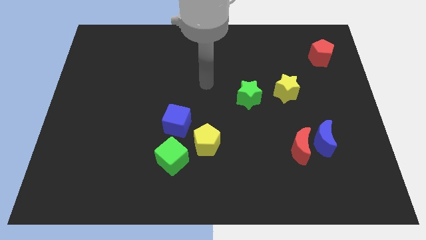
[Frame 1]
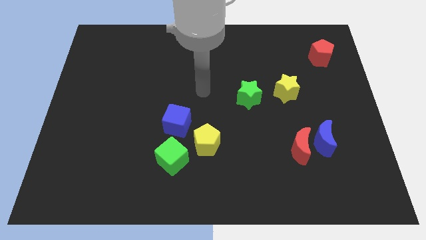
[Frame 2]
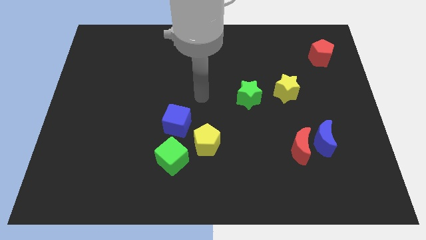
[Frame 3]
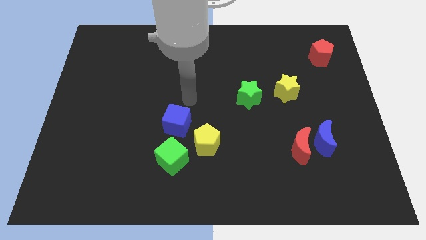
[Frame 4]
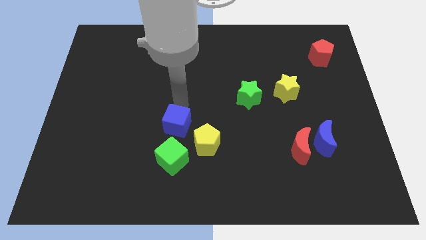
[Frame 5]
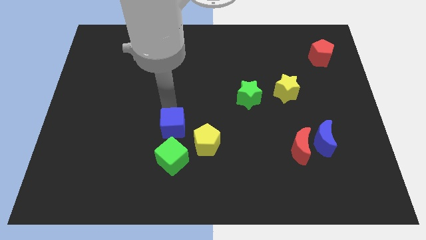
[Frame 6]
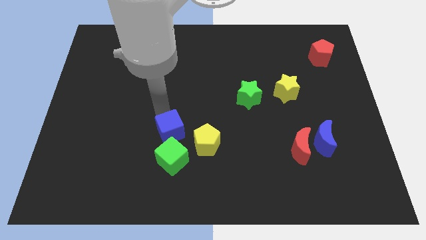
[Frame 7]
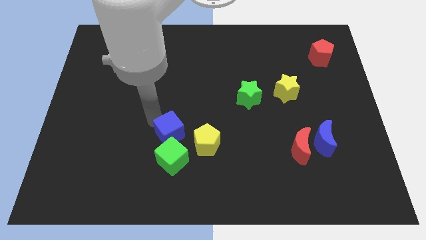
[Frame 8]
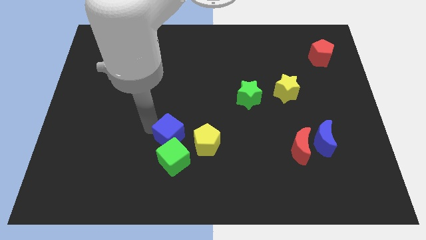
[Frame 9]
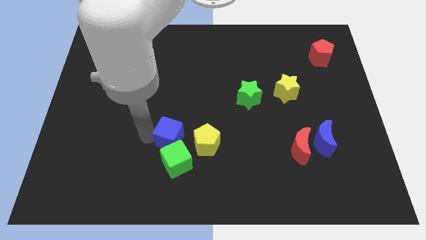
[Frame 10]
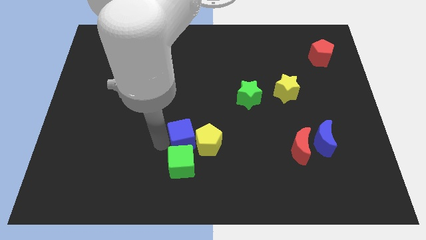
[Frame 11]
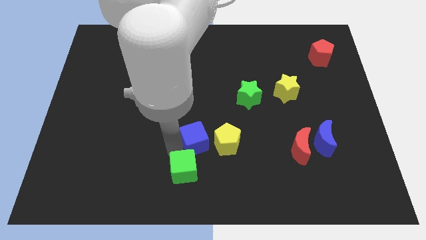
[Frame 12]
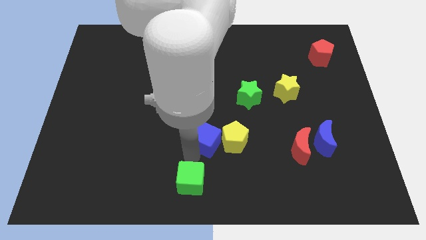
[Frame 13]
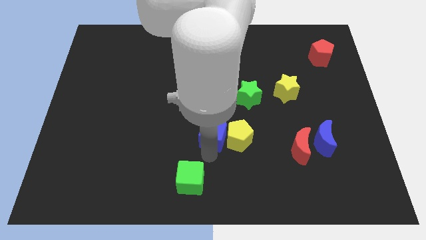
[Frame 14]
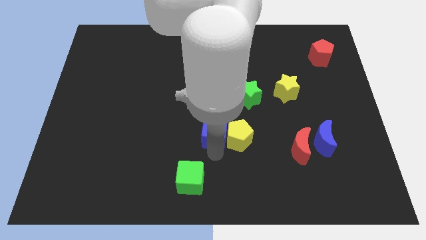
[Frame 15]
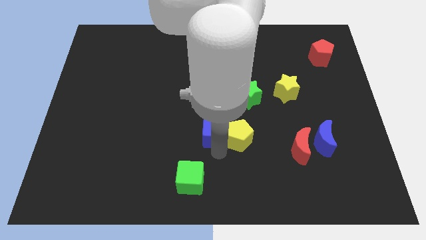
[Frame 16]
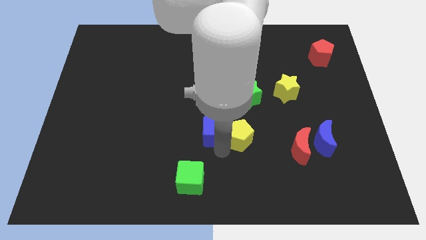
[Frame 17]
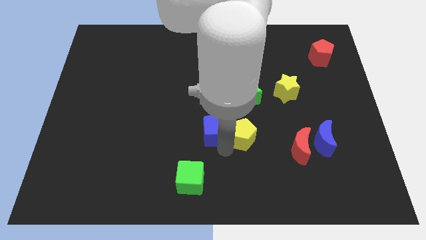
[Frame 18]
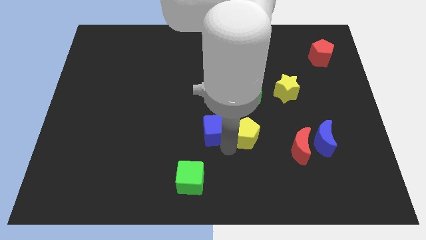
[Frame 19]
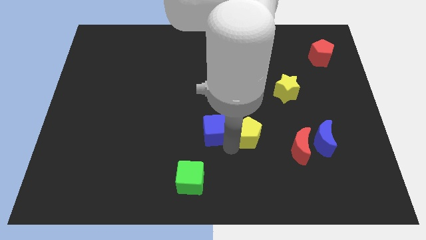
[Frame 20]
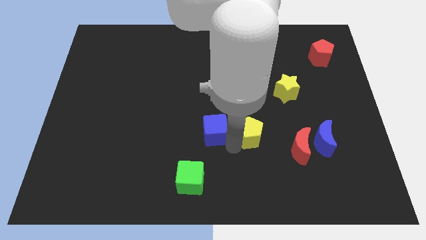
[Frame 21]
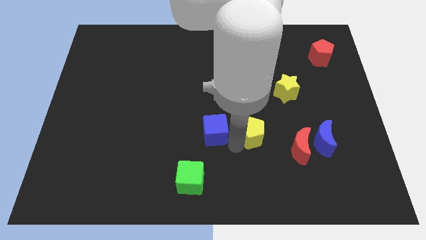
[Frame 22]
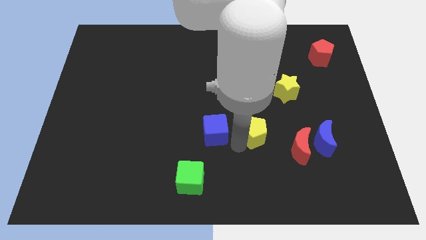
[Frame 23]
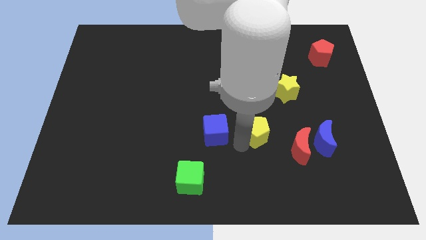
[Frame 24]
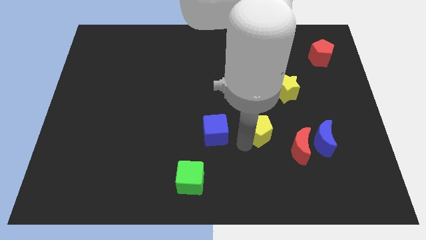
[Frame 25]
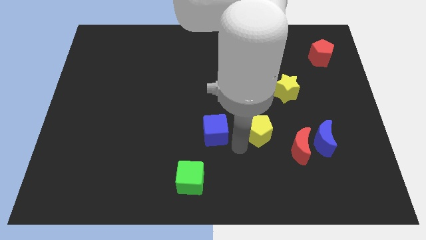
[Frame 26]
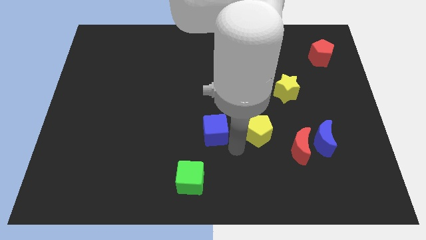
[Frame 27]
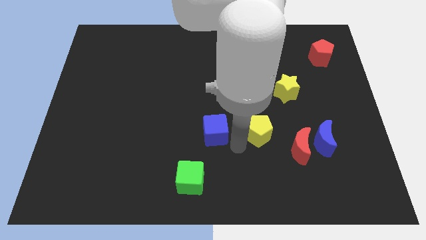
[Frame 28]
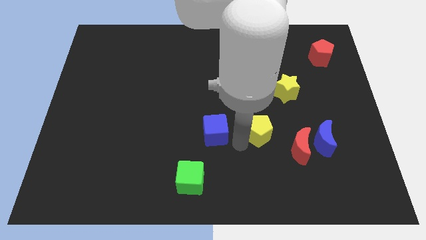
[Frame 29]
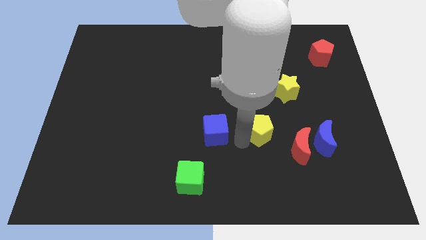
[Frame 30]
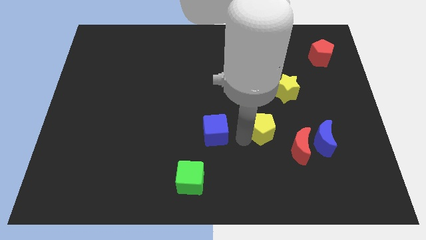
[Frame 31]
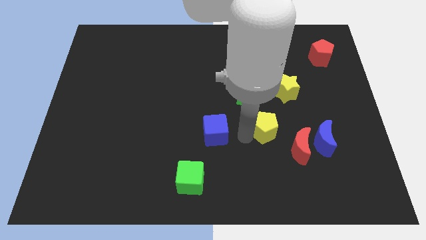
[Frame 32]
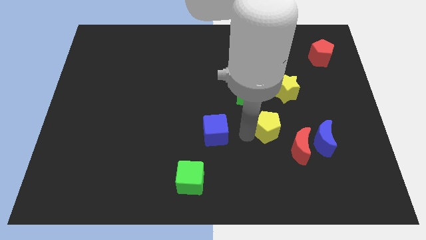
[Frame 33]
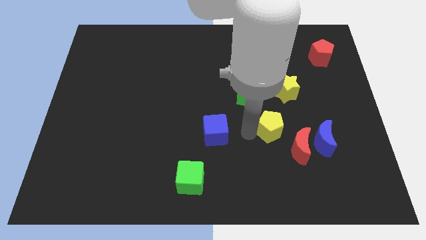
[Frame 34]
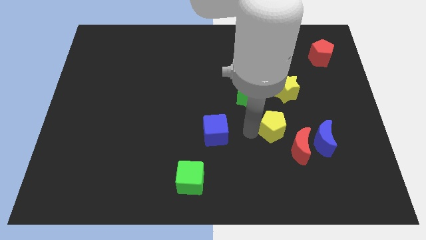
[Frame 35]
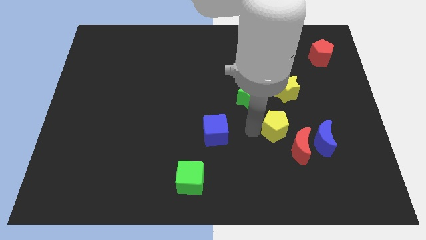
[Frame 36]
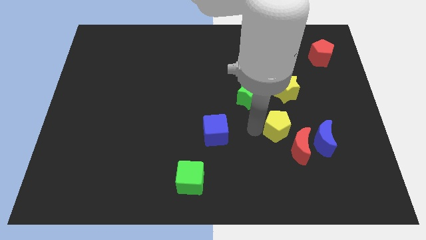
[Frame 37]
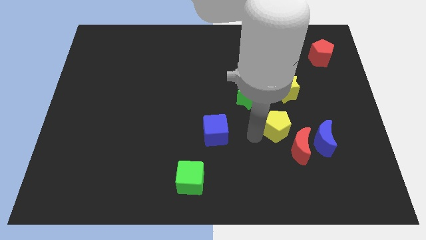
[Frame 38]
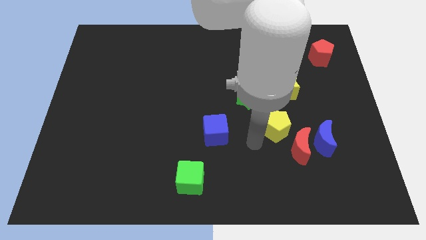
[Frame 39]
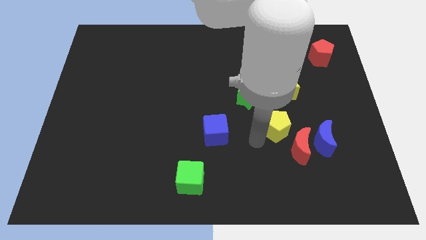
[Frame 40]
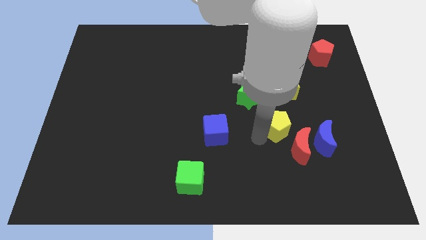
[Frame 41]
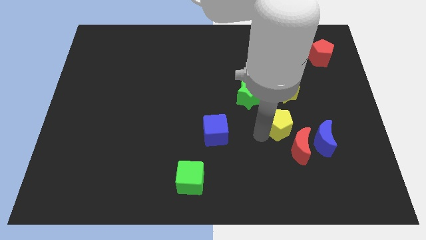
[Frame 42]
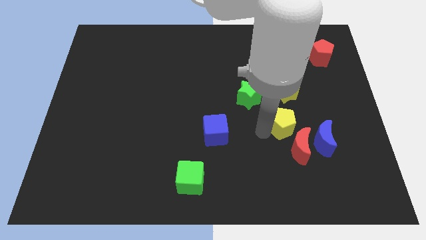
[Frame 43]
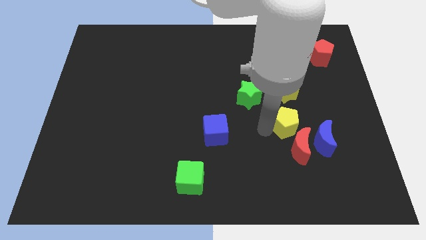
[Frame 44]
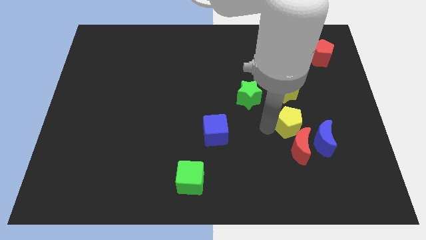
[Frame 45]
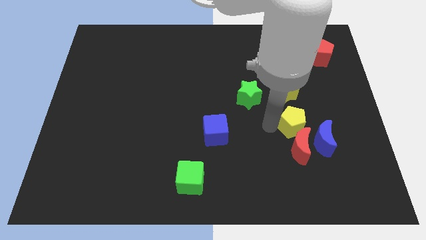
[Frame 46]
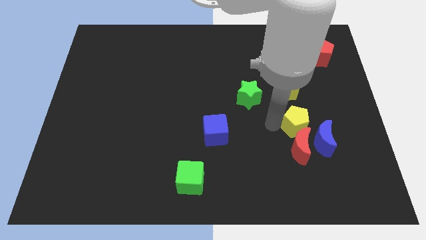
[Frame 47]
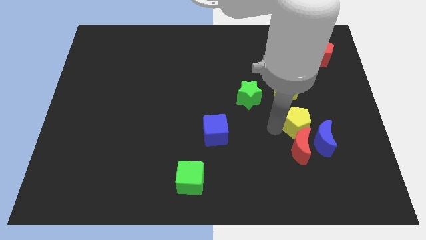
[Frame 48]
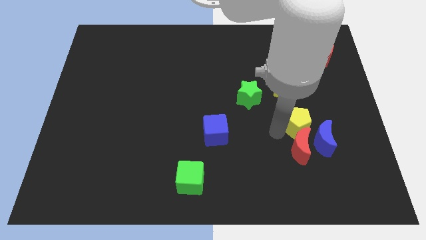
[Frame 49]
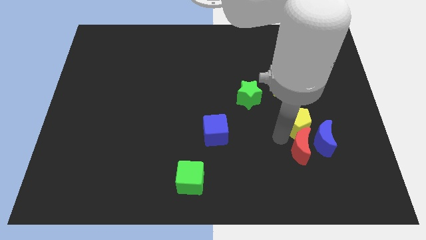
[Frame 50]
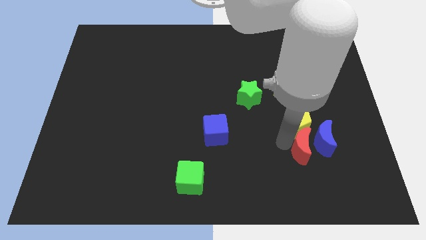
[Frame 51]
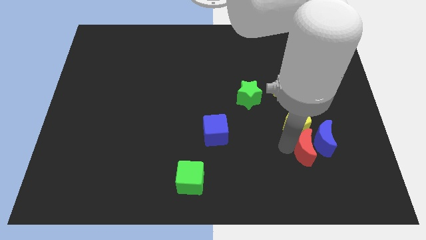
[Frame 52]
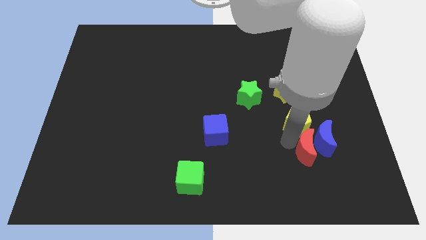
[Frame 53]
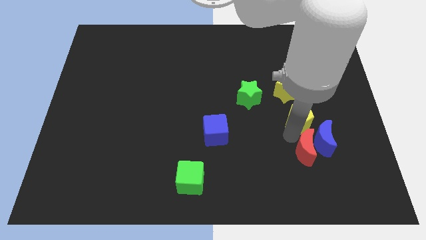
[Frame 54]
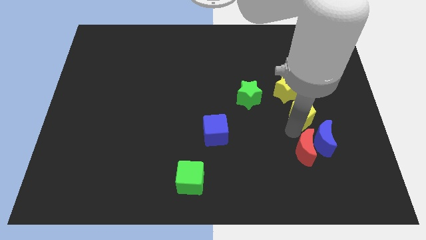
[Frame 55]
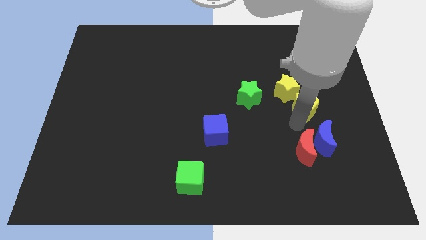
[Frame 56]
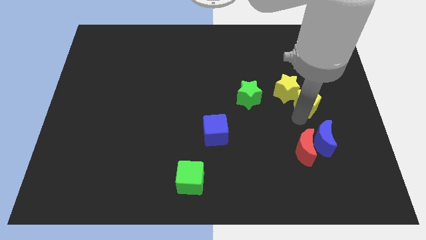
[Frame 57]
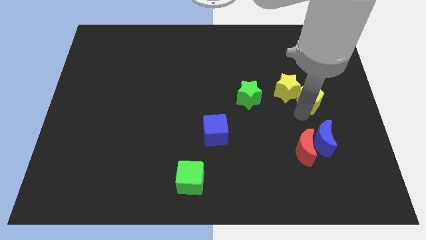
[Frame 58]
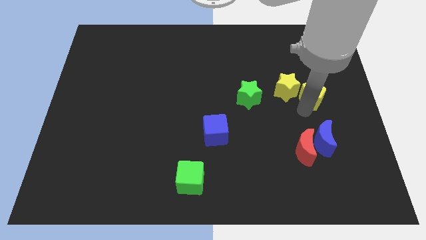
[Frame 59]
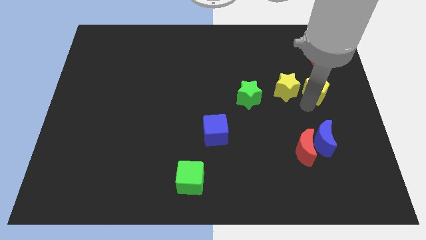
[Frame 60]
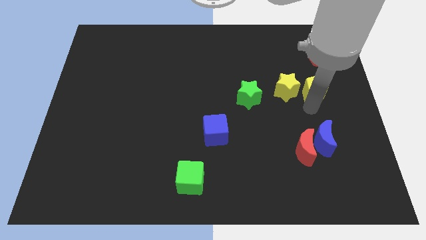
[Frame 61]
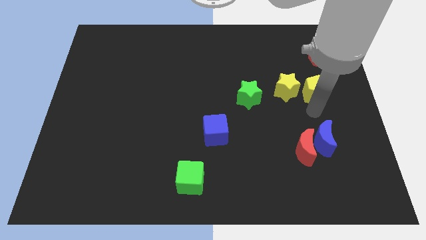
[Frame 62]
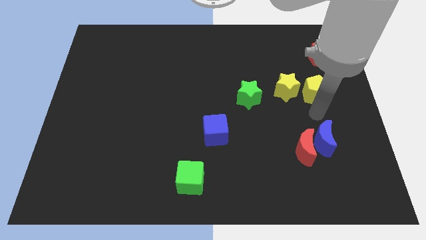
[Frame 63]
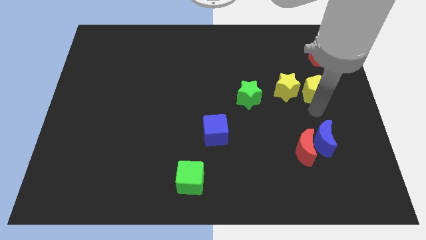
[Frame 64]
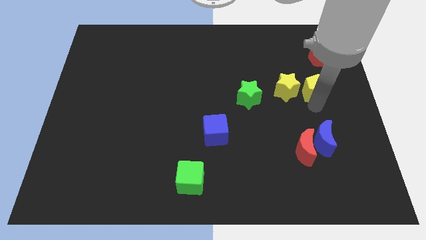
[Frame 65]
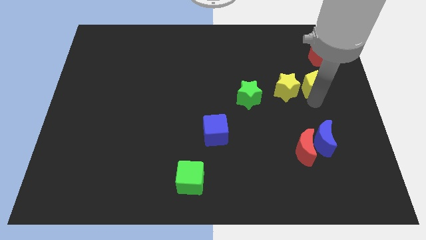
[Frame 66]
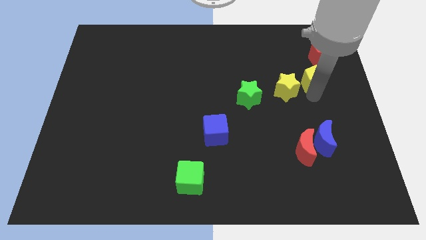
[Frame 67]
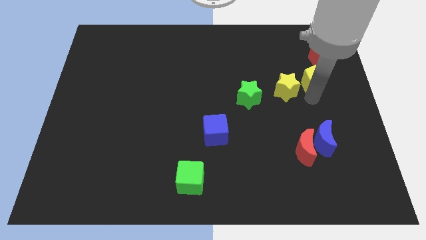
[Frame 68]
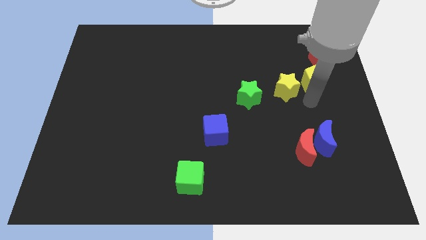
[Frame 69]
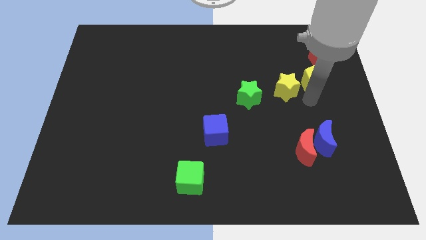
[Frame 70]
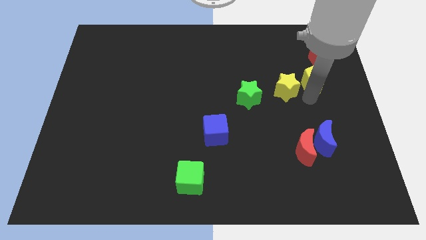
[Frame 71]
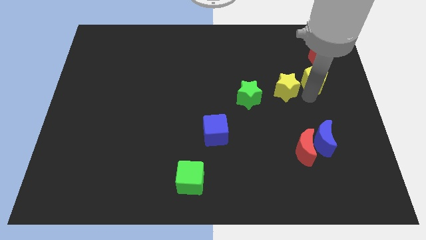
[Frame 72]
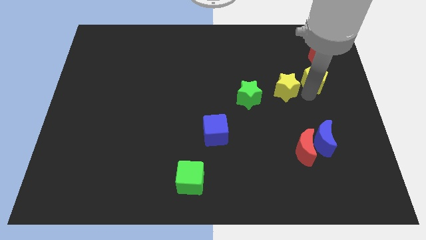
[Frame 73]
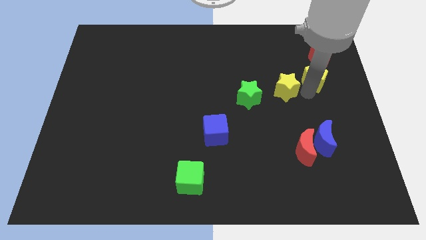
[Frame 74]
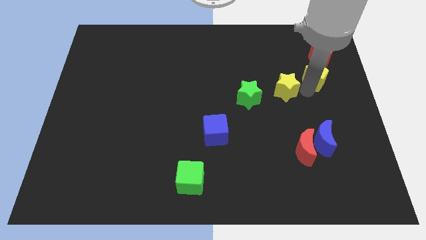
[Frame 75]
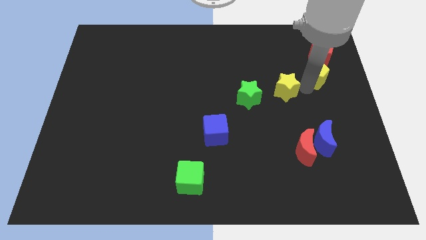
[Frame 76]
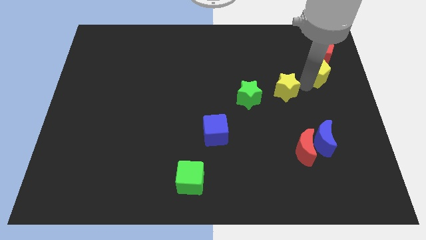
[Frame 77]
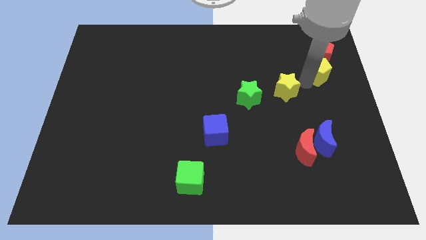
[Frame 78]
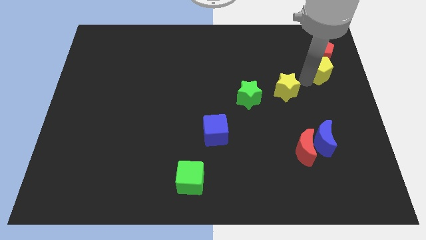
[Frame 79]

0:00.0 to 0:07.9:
move the yellow pentagon close to the red pentagon
